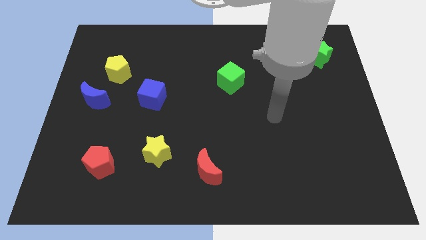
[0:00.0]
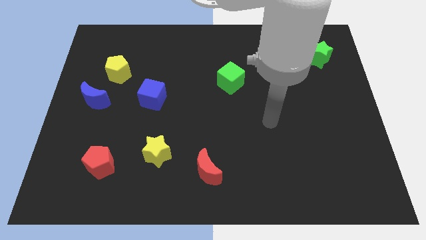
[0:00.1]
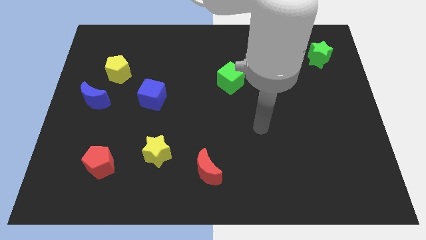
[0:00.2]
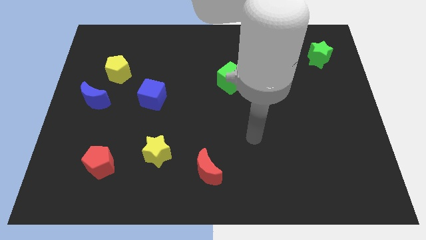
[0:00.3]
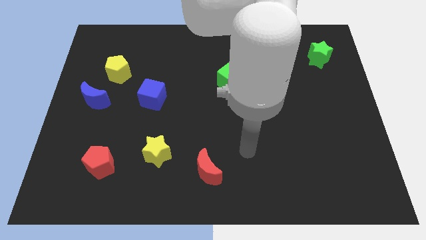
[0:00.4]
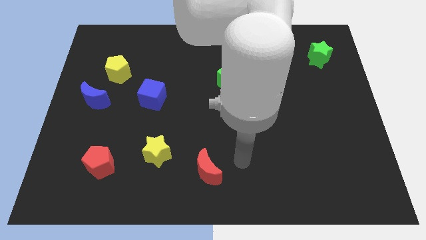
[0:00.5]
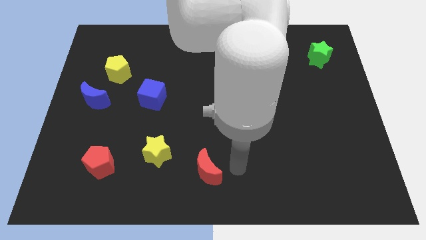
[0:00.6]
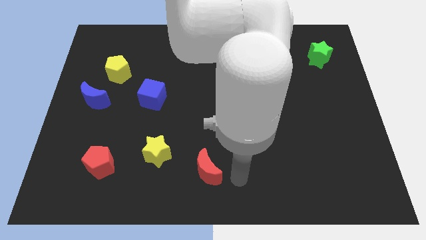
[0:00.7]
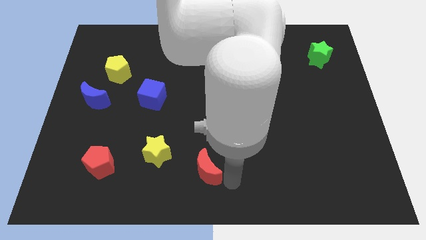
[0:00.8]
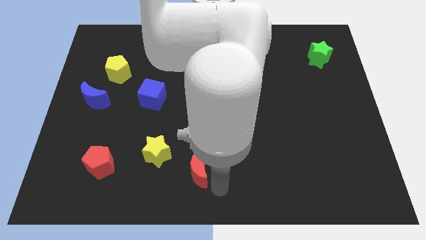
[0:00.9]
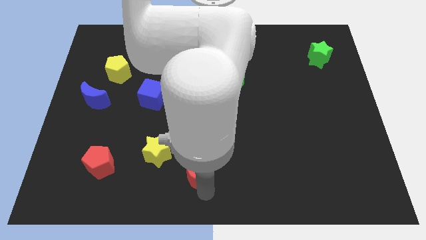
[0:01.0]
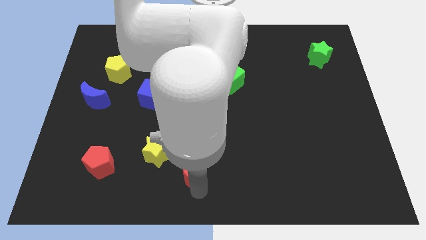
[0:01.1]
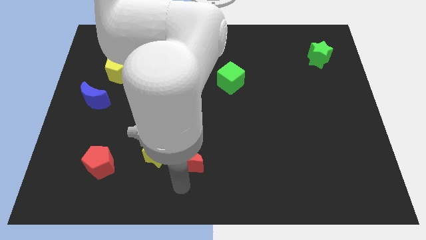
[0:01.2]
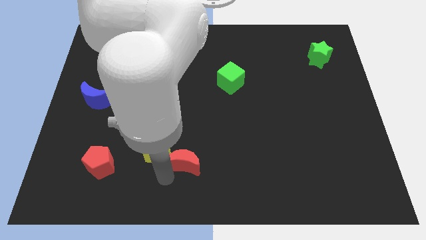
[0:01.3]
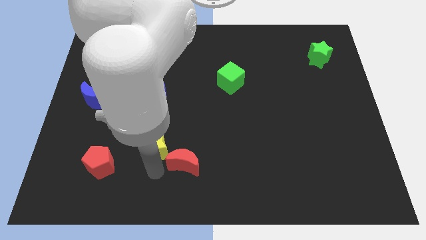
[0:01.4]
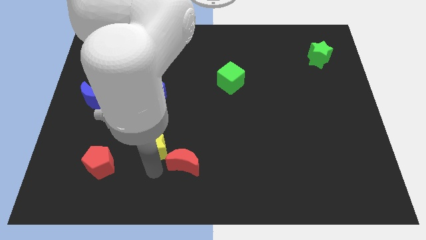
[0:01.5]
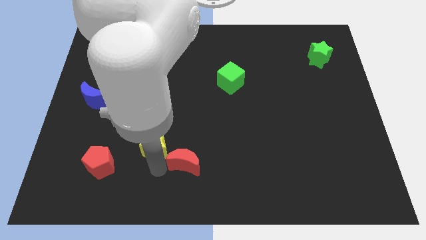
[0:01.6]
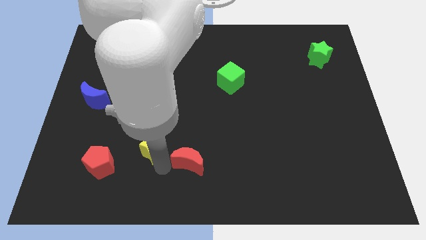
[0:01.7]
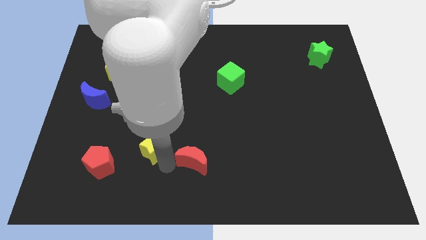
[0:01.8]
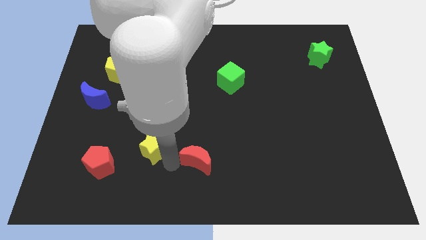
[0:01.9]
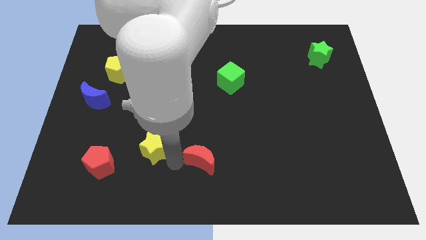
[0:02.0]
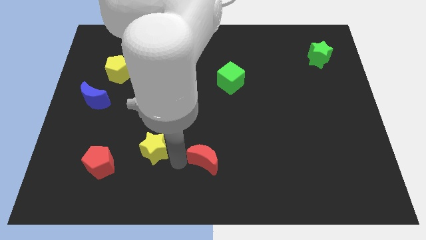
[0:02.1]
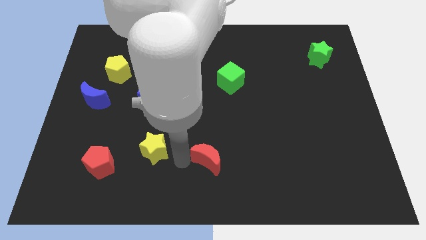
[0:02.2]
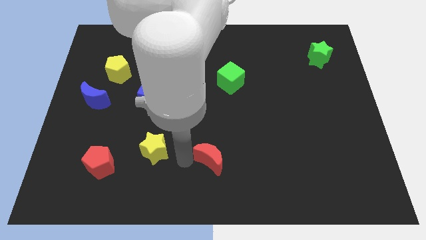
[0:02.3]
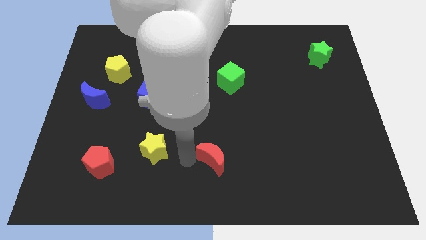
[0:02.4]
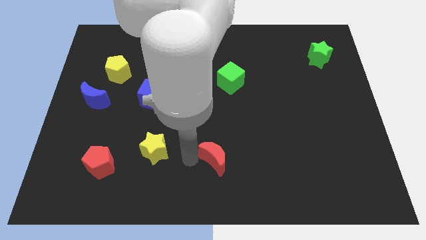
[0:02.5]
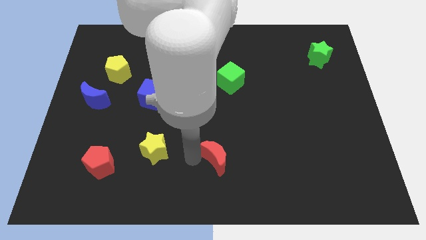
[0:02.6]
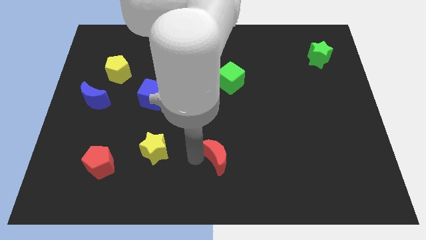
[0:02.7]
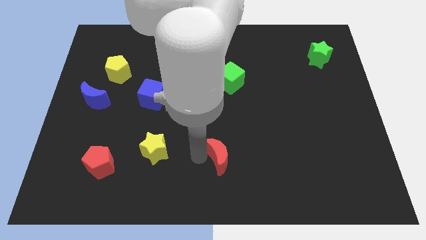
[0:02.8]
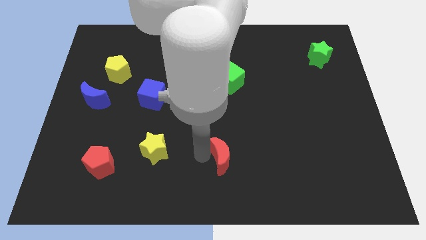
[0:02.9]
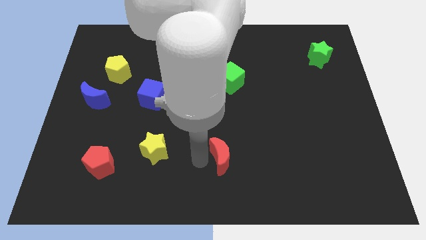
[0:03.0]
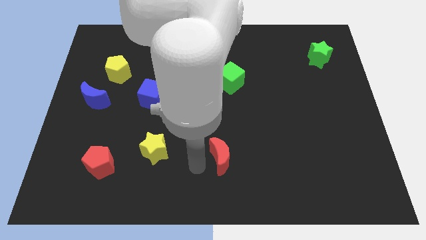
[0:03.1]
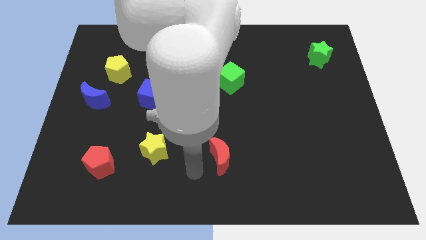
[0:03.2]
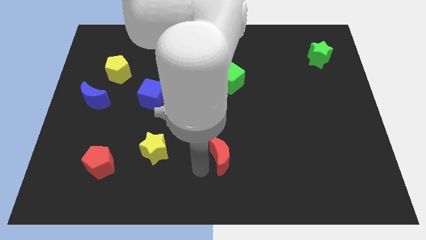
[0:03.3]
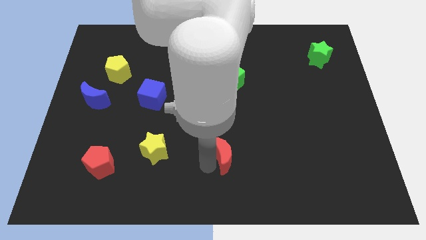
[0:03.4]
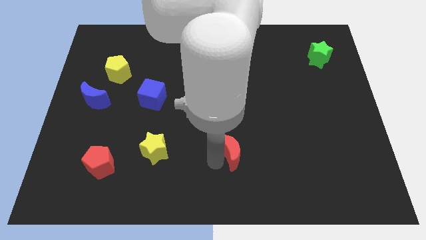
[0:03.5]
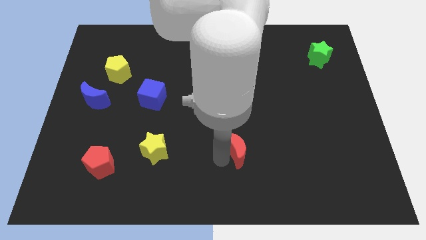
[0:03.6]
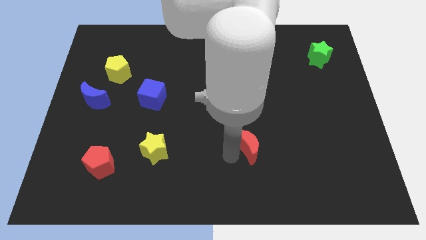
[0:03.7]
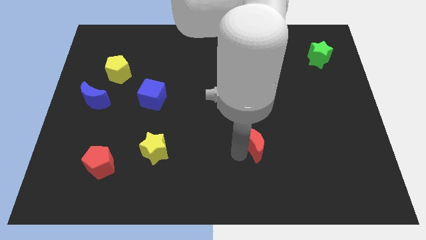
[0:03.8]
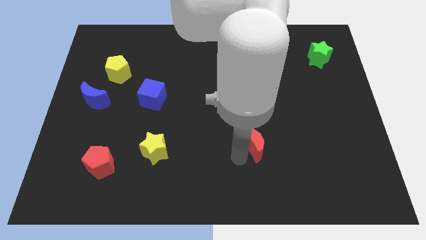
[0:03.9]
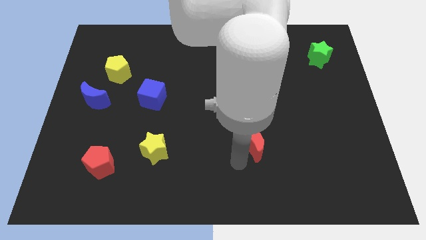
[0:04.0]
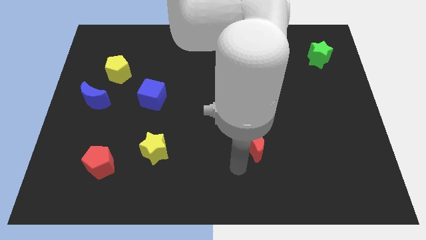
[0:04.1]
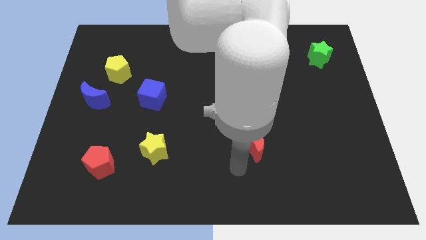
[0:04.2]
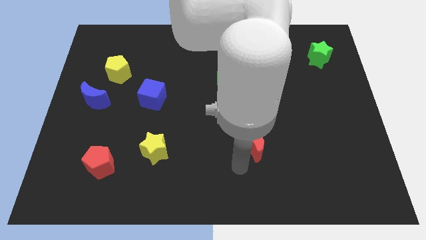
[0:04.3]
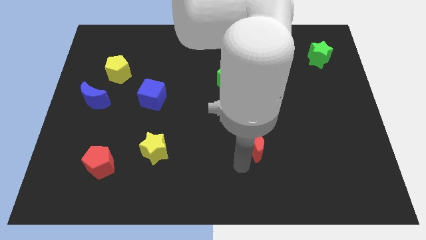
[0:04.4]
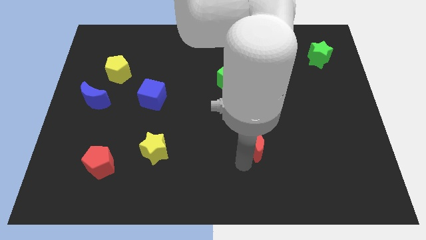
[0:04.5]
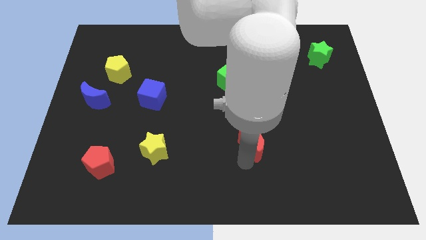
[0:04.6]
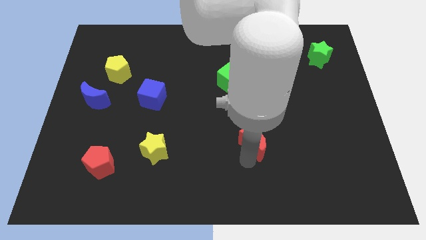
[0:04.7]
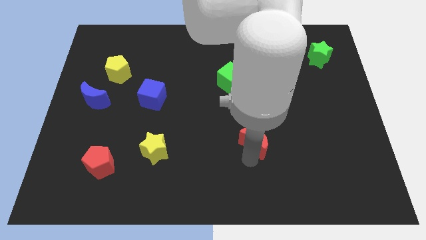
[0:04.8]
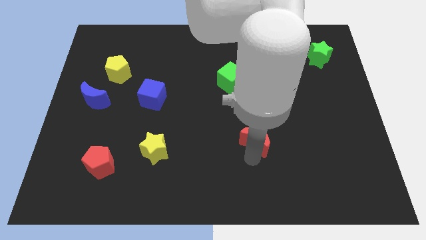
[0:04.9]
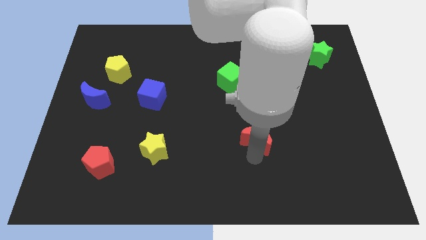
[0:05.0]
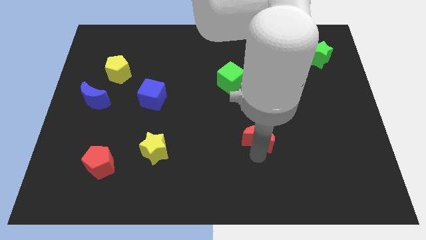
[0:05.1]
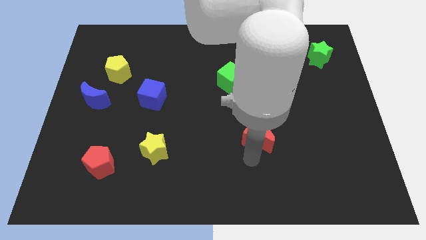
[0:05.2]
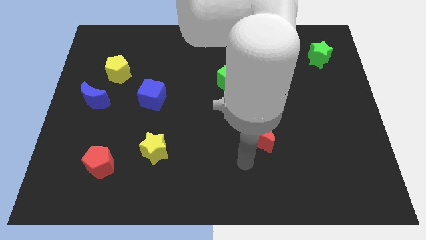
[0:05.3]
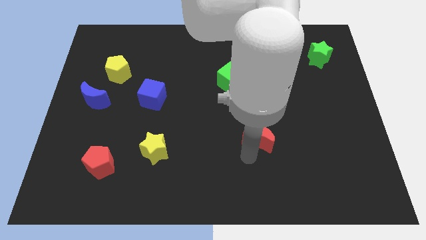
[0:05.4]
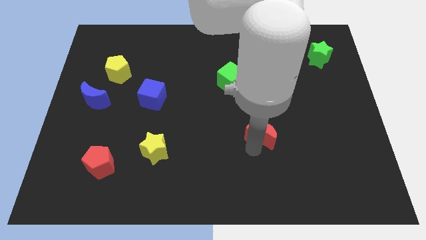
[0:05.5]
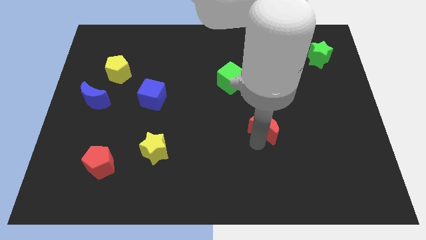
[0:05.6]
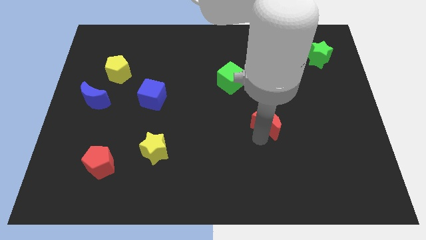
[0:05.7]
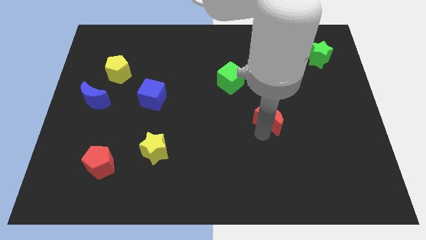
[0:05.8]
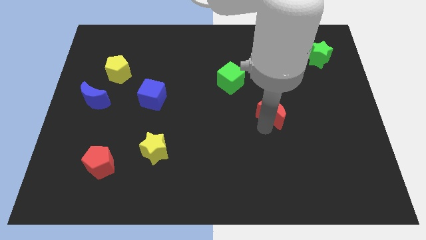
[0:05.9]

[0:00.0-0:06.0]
push the red moon upwards and then to the right

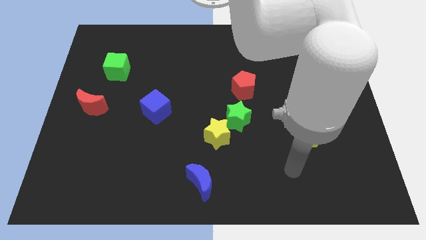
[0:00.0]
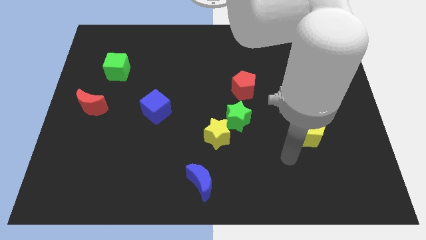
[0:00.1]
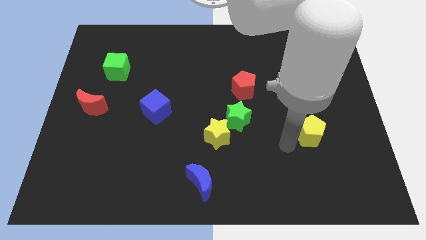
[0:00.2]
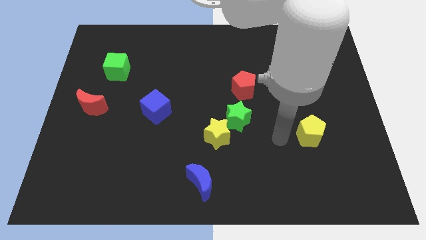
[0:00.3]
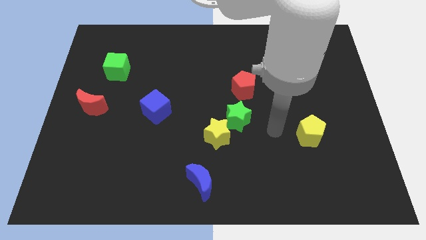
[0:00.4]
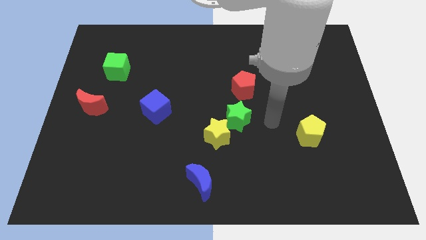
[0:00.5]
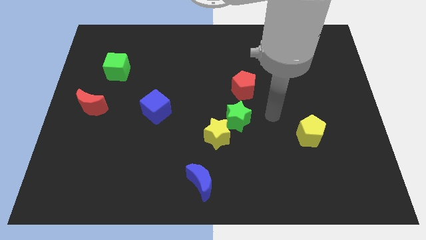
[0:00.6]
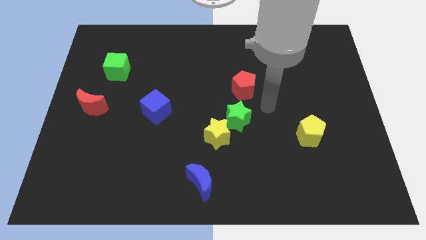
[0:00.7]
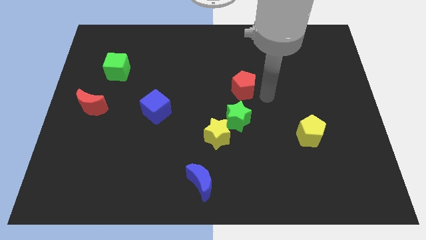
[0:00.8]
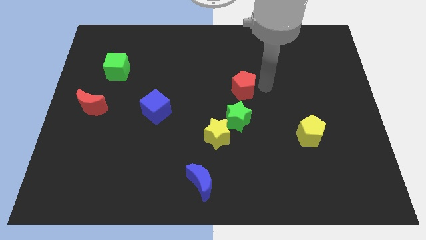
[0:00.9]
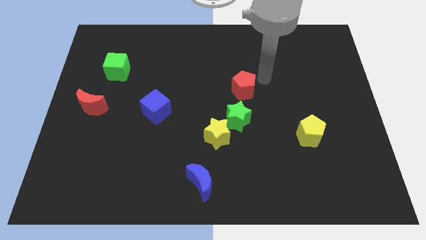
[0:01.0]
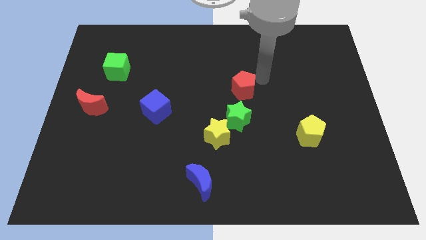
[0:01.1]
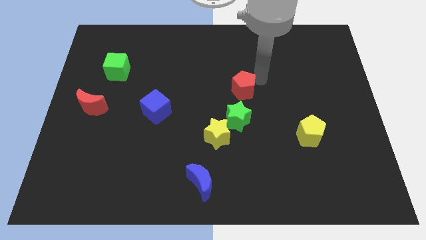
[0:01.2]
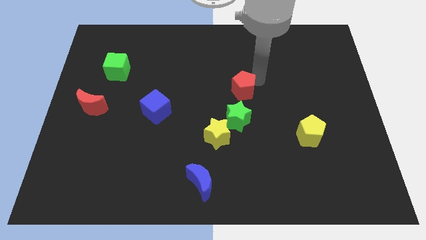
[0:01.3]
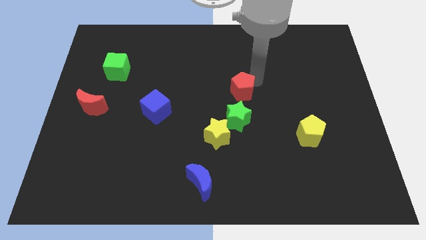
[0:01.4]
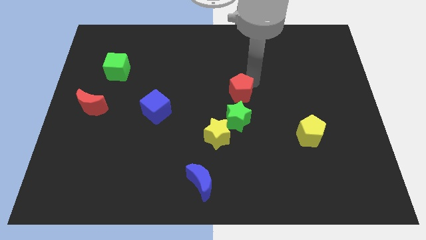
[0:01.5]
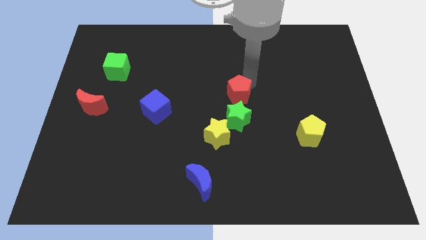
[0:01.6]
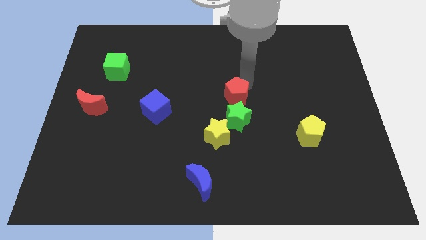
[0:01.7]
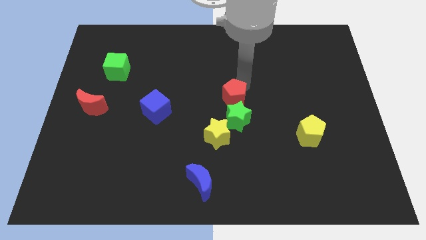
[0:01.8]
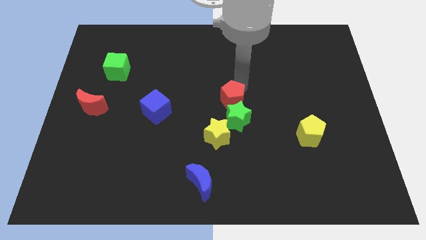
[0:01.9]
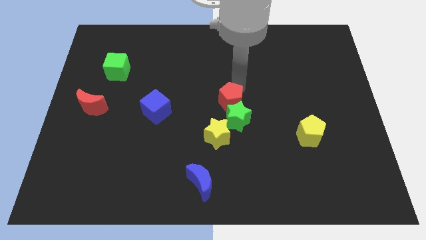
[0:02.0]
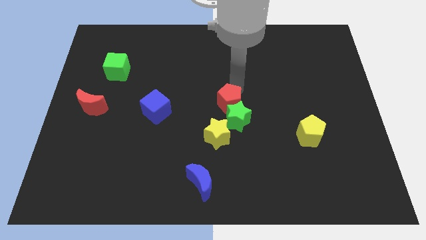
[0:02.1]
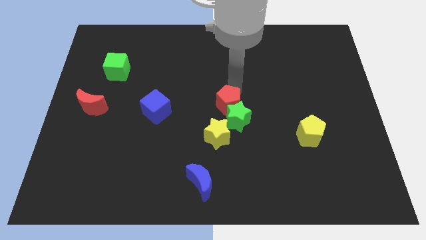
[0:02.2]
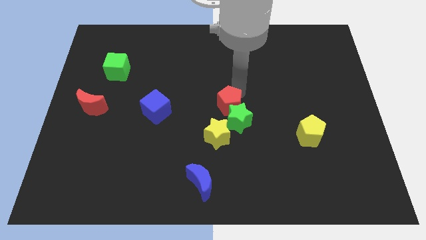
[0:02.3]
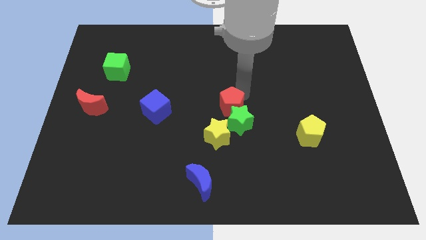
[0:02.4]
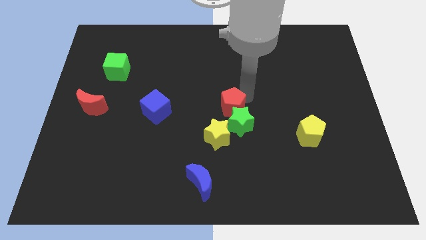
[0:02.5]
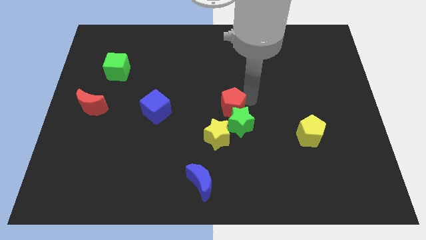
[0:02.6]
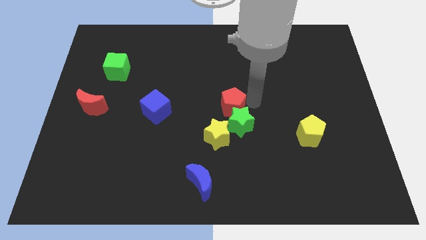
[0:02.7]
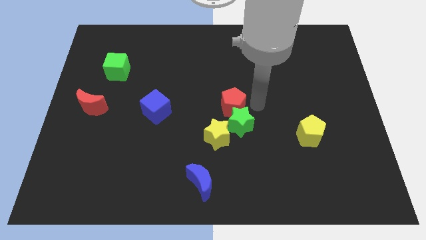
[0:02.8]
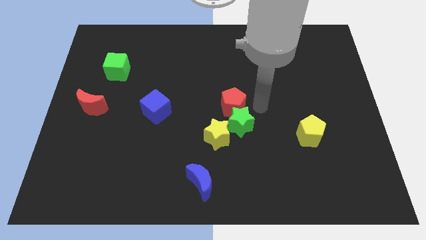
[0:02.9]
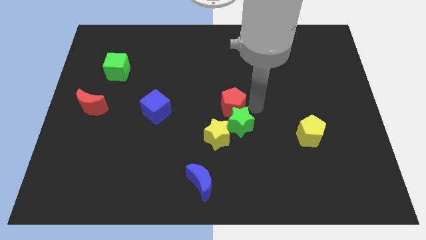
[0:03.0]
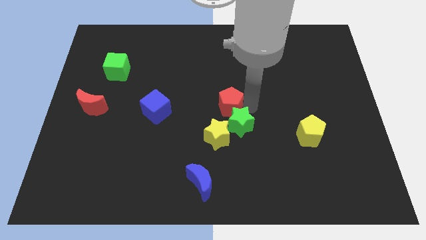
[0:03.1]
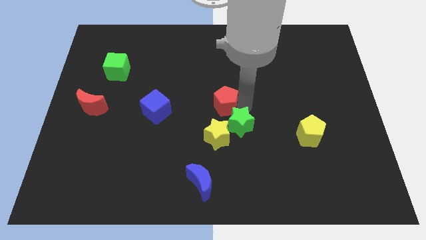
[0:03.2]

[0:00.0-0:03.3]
move the red pentagon downwards and then to the left a little bit
